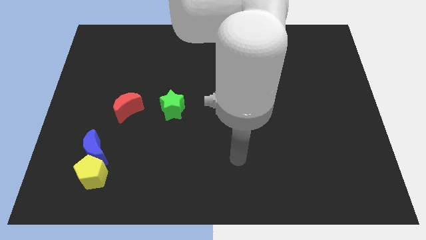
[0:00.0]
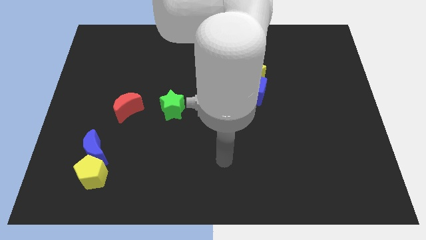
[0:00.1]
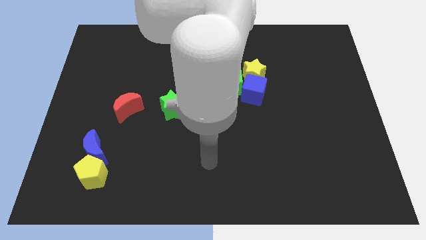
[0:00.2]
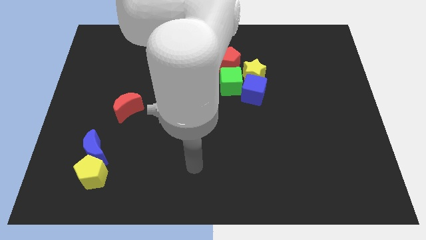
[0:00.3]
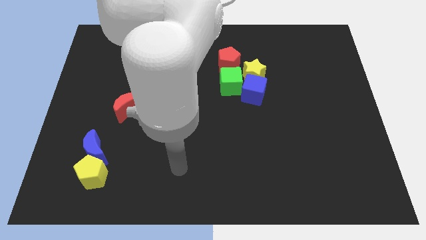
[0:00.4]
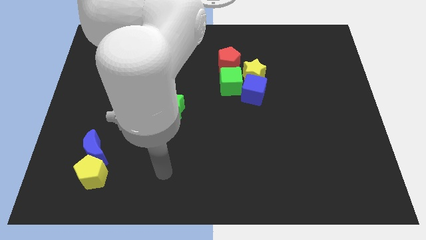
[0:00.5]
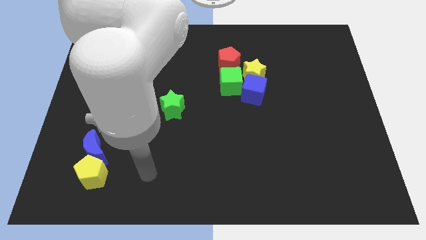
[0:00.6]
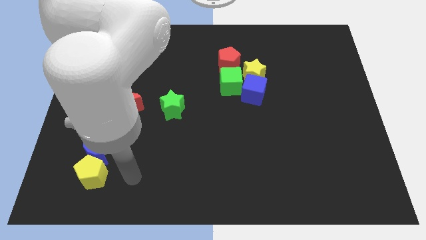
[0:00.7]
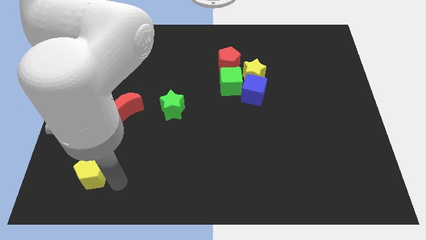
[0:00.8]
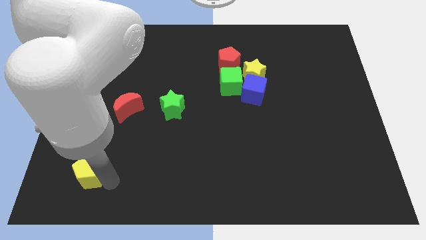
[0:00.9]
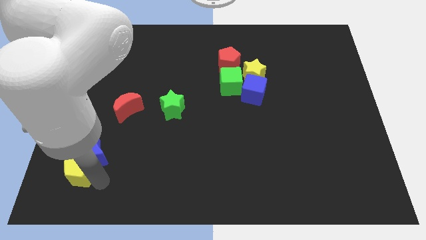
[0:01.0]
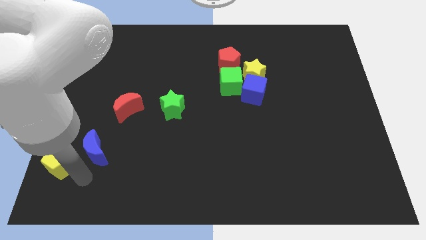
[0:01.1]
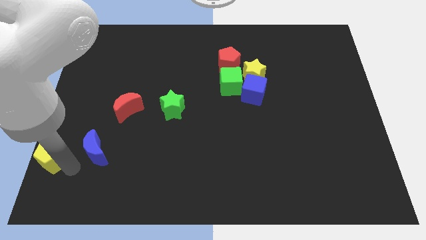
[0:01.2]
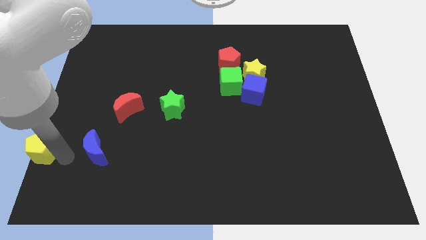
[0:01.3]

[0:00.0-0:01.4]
separate the blue moon from the yellow pentagon

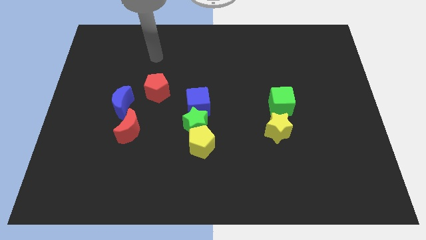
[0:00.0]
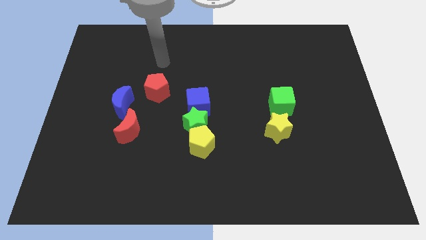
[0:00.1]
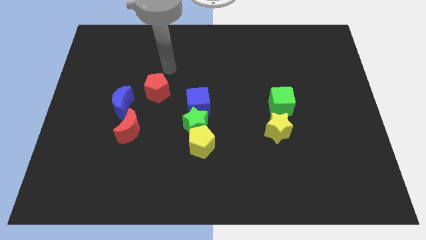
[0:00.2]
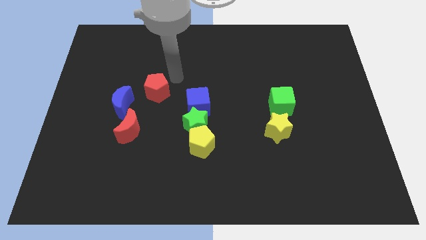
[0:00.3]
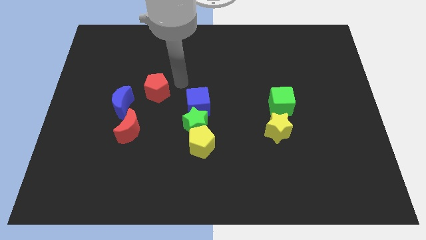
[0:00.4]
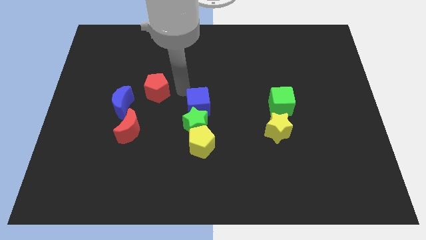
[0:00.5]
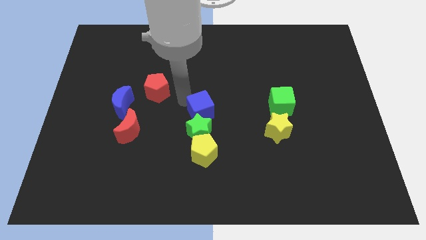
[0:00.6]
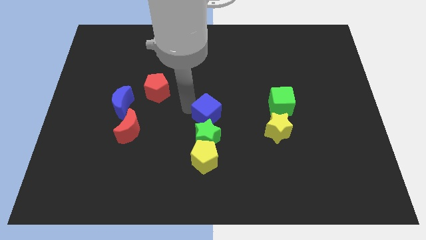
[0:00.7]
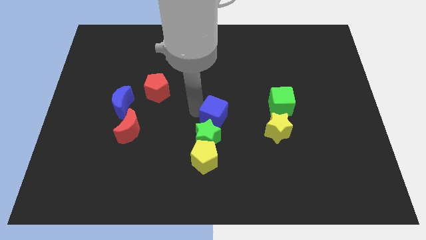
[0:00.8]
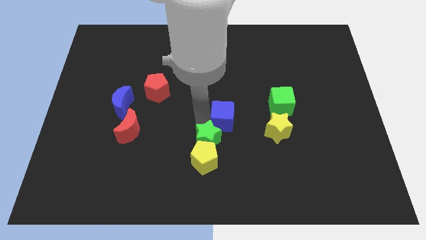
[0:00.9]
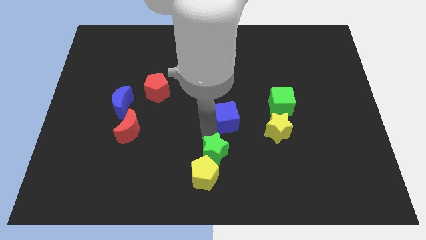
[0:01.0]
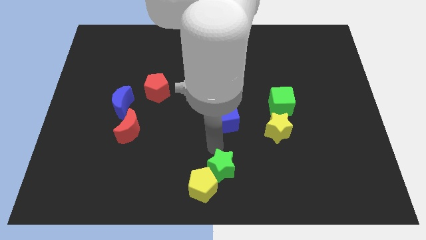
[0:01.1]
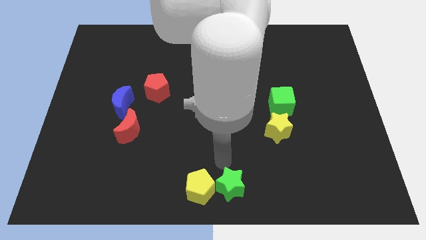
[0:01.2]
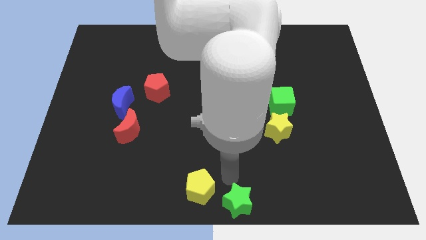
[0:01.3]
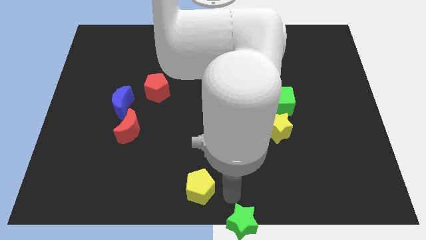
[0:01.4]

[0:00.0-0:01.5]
pull the yellow pentagon apart from the green star

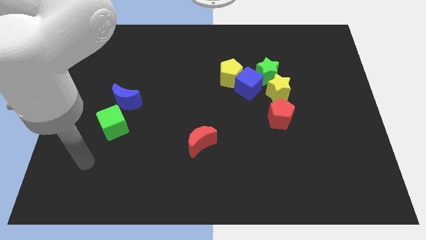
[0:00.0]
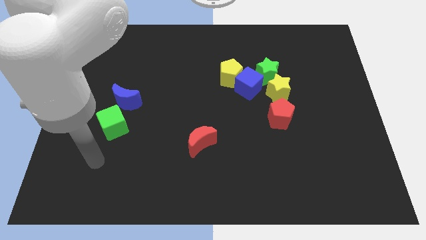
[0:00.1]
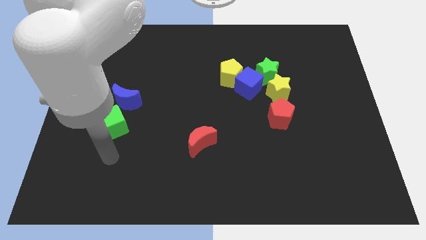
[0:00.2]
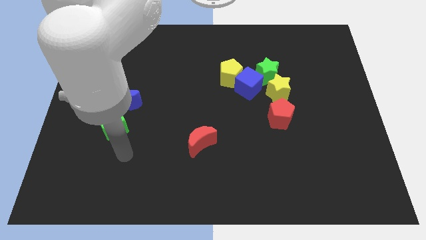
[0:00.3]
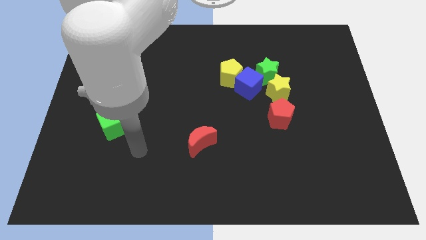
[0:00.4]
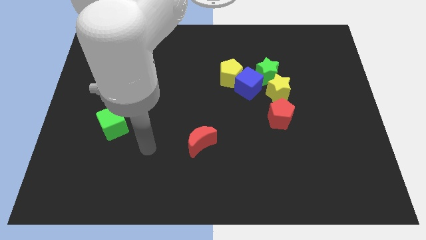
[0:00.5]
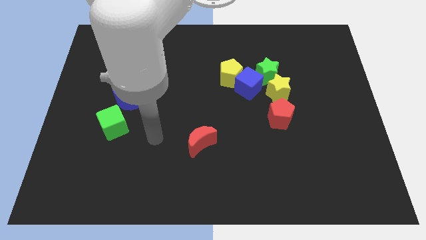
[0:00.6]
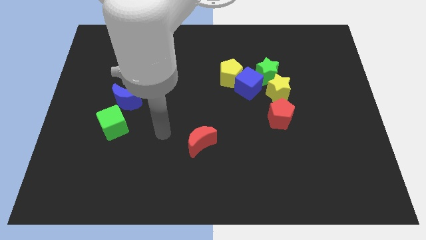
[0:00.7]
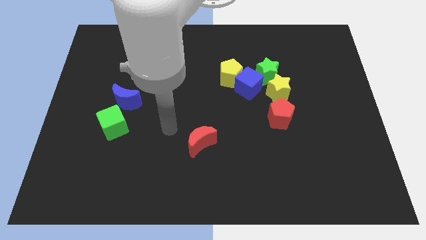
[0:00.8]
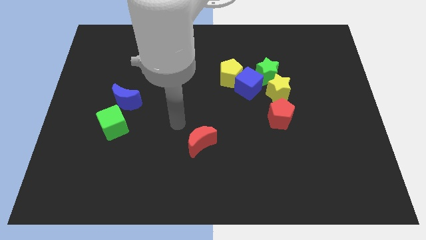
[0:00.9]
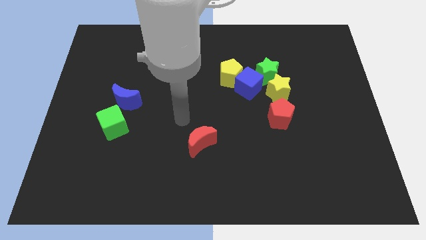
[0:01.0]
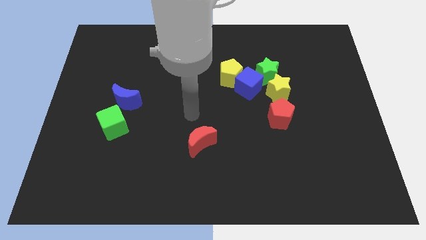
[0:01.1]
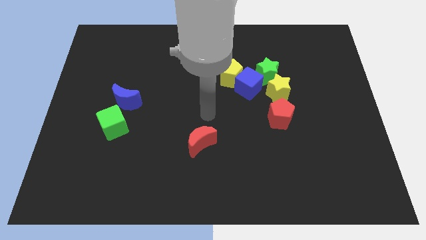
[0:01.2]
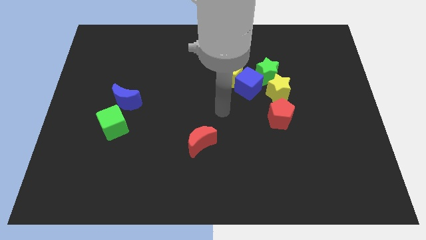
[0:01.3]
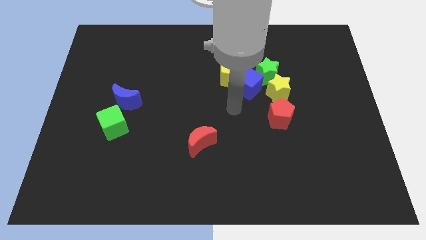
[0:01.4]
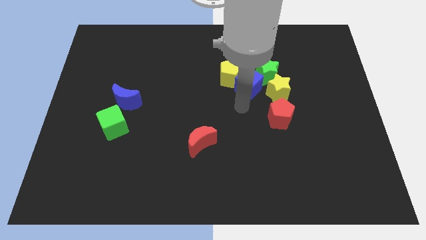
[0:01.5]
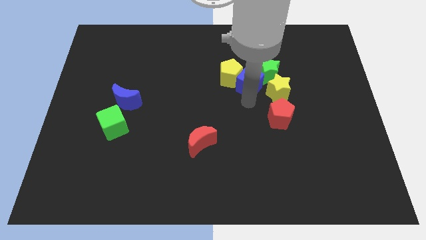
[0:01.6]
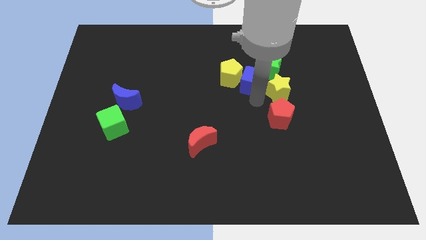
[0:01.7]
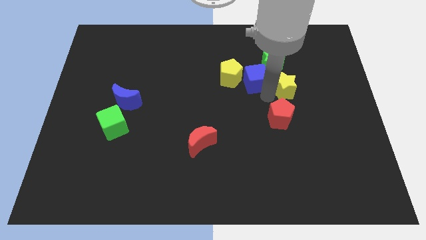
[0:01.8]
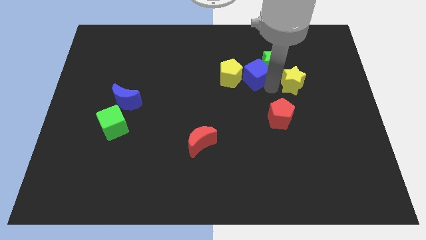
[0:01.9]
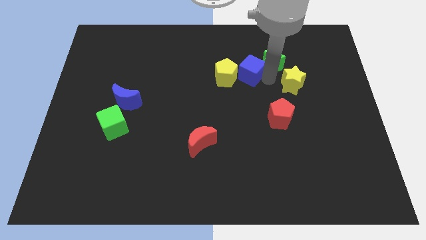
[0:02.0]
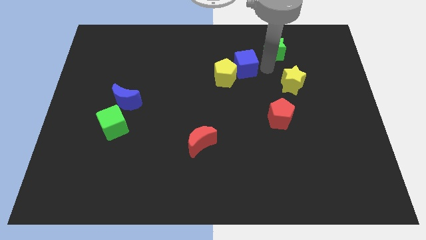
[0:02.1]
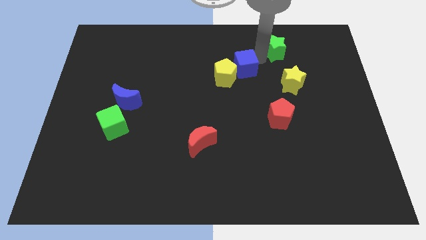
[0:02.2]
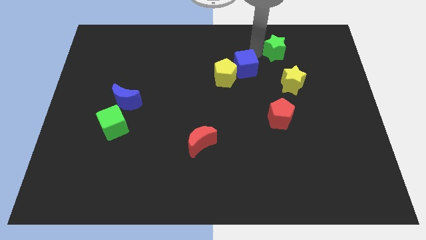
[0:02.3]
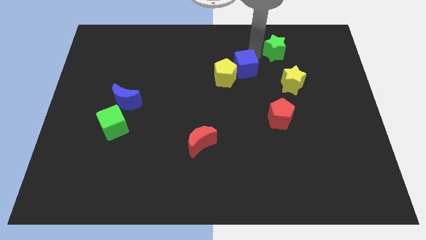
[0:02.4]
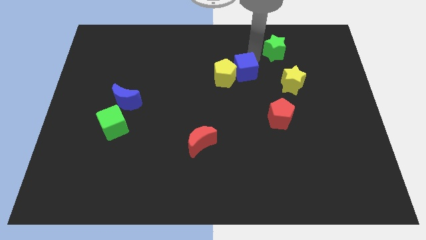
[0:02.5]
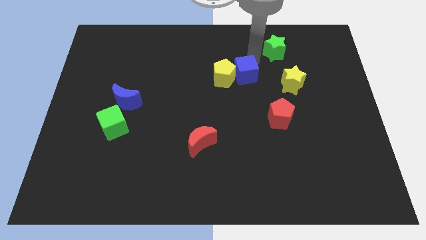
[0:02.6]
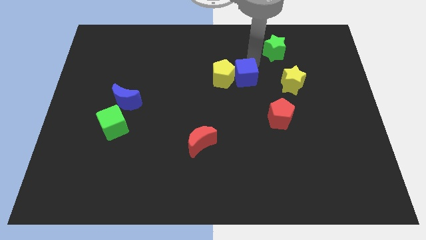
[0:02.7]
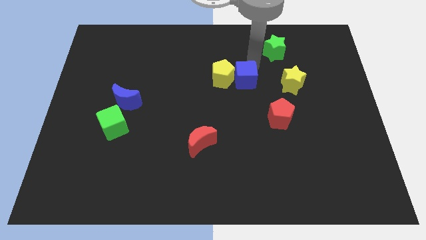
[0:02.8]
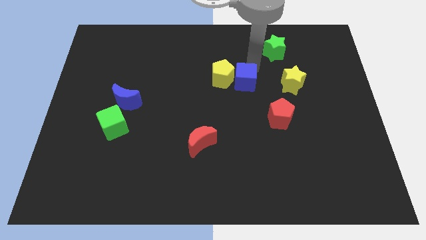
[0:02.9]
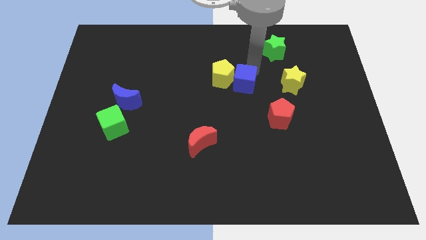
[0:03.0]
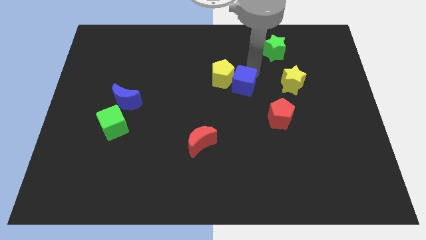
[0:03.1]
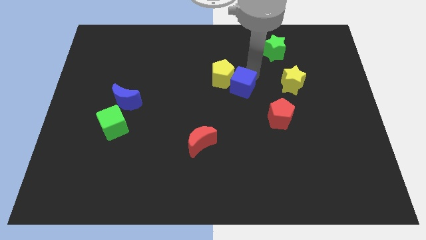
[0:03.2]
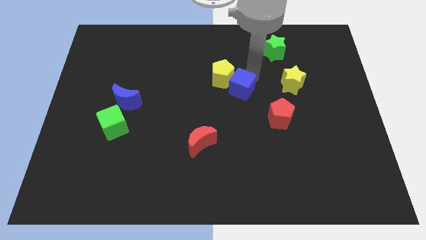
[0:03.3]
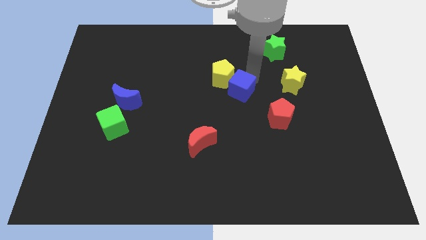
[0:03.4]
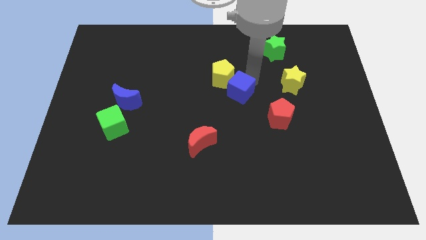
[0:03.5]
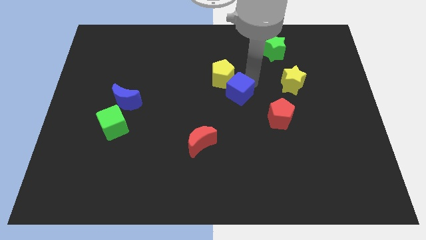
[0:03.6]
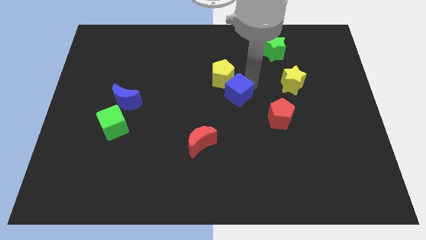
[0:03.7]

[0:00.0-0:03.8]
separate the blue cube from the yellow pentagon, green star, and yellow star

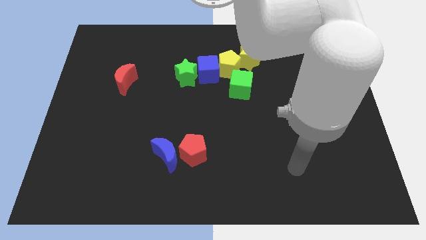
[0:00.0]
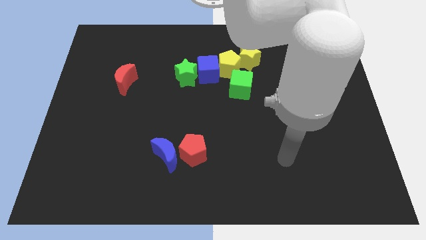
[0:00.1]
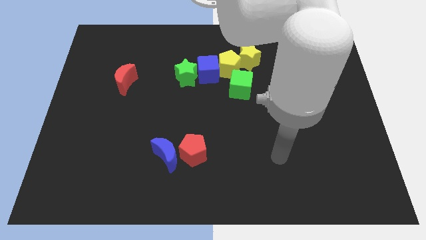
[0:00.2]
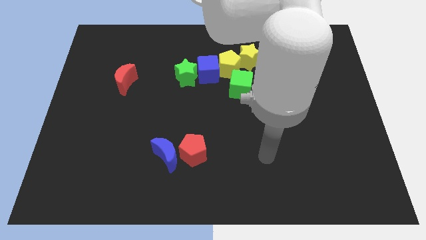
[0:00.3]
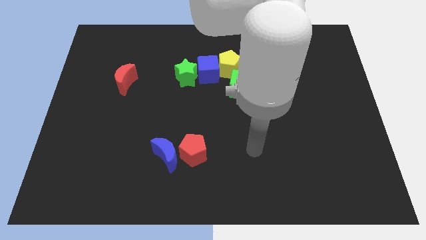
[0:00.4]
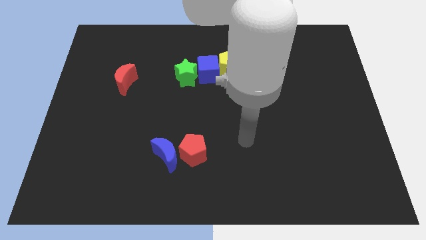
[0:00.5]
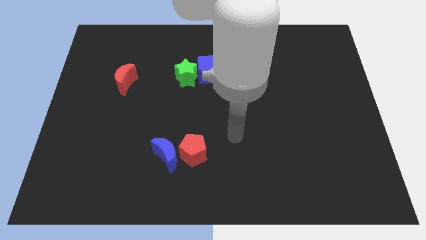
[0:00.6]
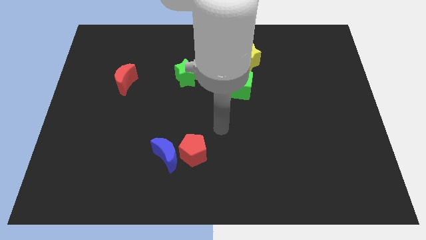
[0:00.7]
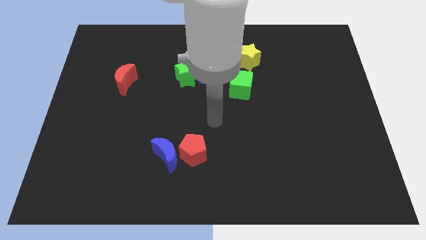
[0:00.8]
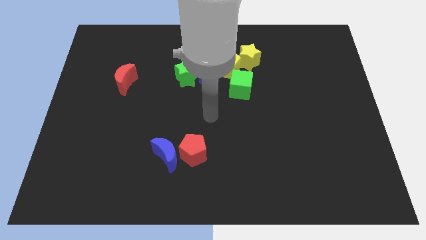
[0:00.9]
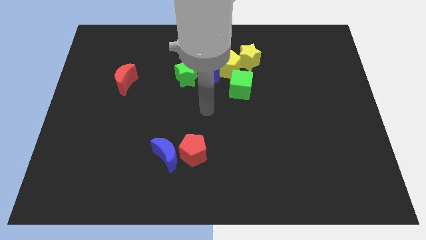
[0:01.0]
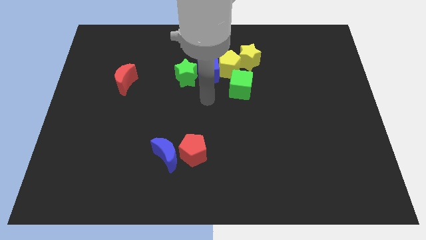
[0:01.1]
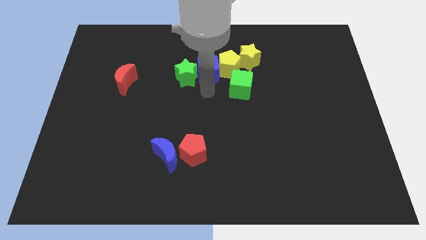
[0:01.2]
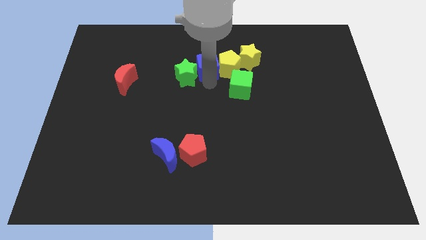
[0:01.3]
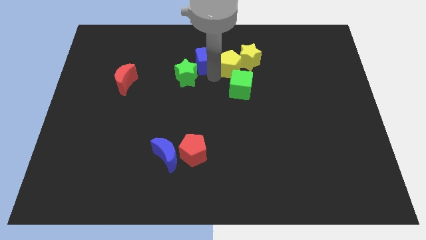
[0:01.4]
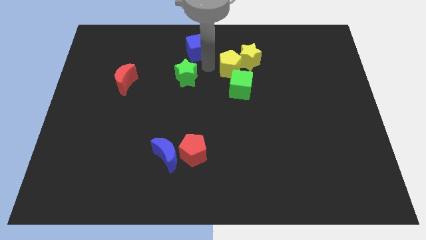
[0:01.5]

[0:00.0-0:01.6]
separate the green star from the blue cube

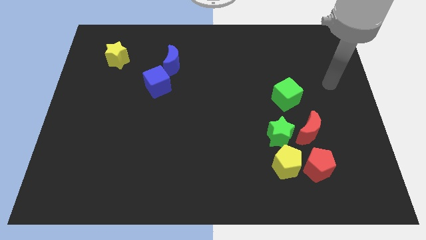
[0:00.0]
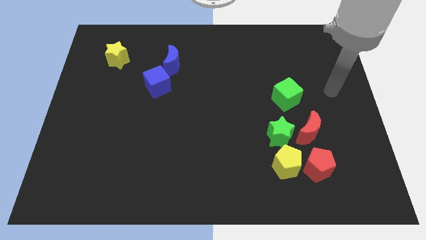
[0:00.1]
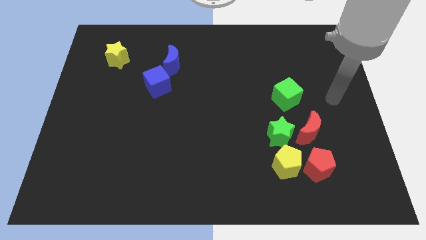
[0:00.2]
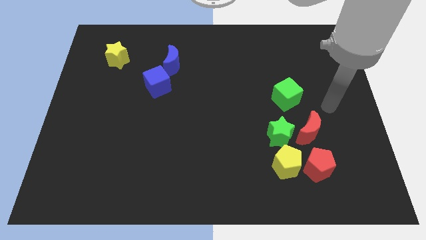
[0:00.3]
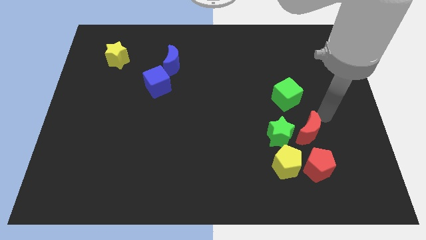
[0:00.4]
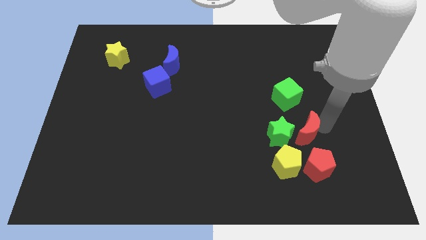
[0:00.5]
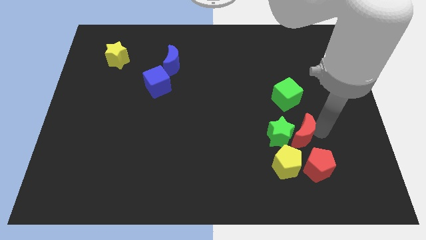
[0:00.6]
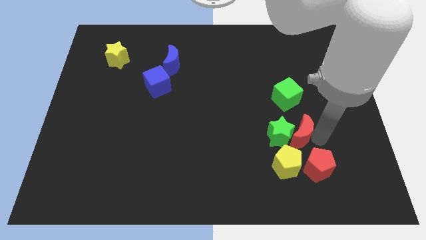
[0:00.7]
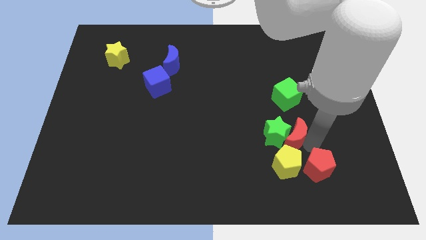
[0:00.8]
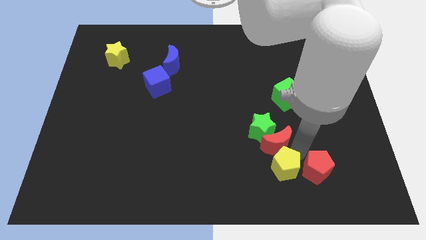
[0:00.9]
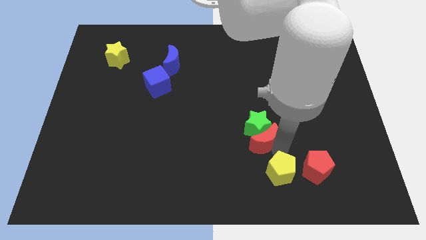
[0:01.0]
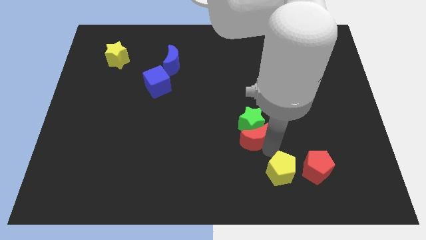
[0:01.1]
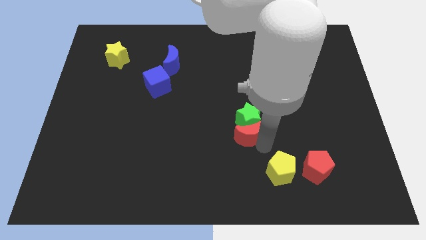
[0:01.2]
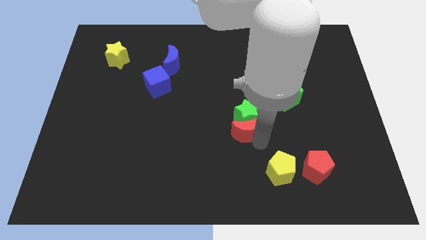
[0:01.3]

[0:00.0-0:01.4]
pull the green star apart from the red moon and yellow pentagon
